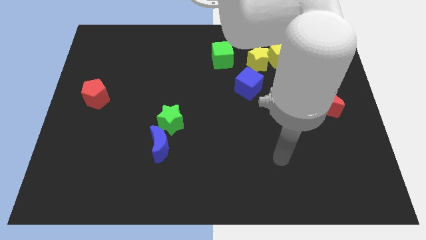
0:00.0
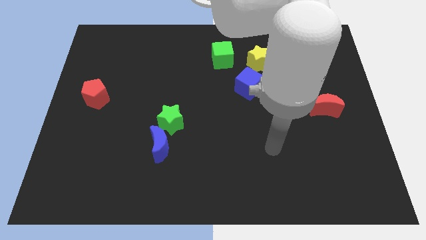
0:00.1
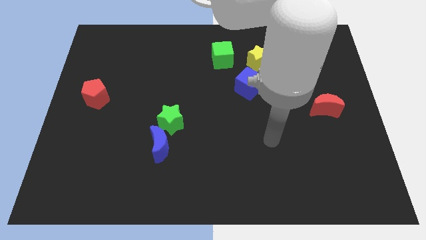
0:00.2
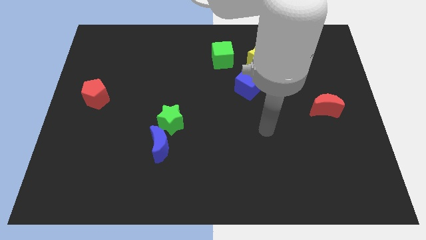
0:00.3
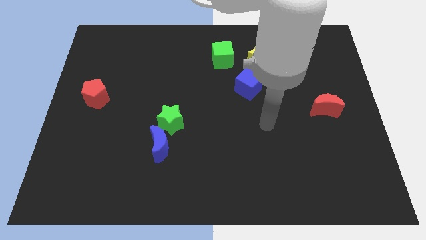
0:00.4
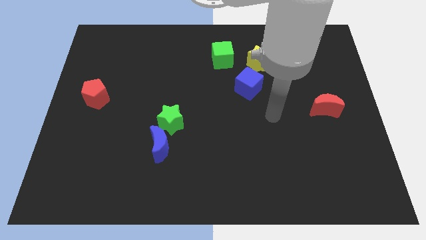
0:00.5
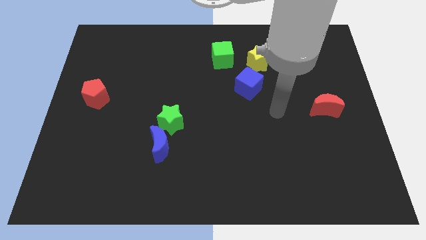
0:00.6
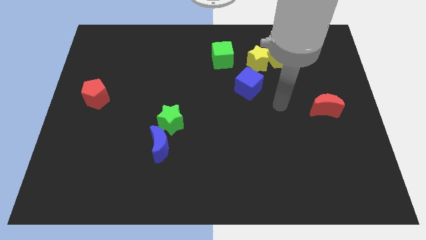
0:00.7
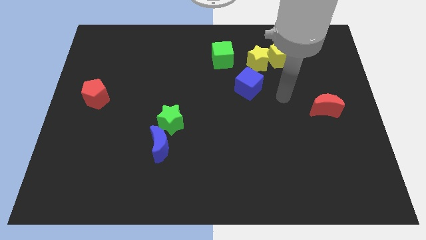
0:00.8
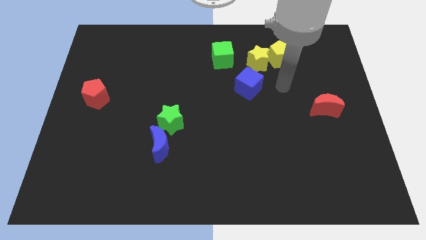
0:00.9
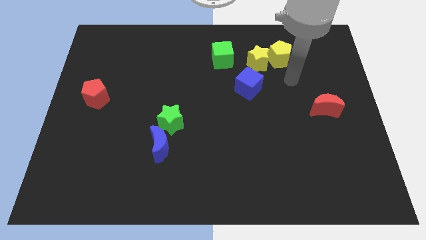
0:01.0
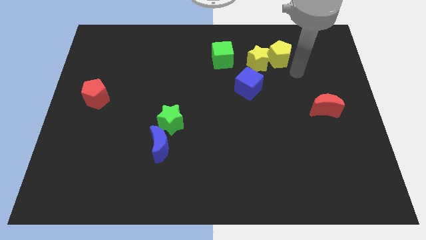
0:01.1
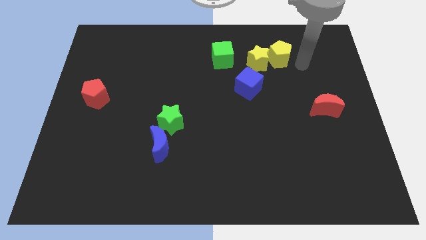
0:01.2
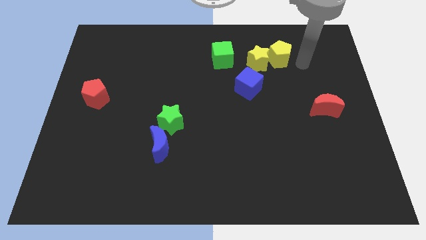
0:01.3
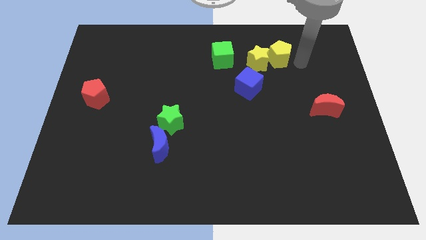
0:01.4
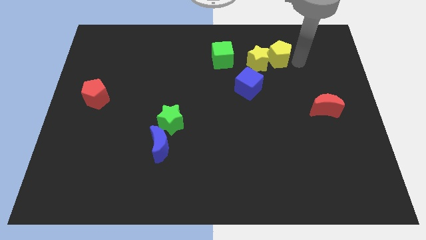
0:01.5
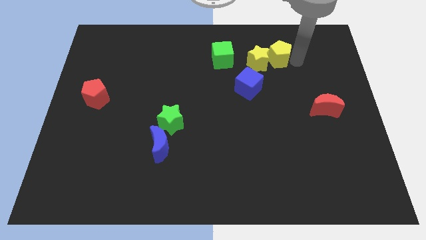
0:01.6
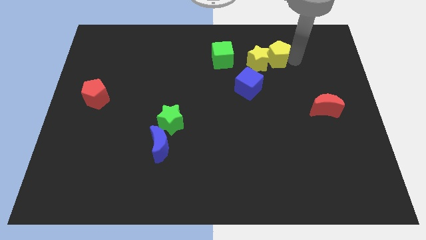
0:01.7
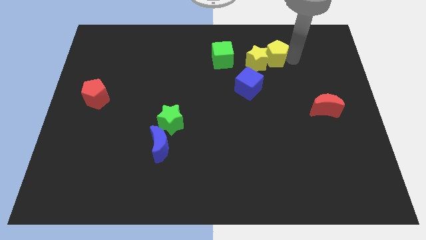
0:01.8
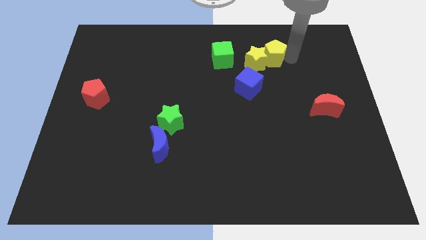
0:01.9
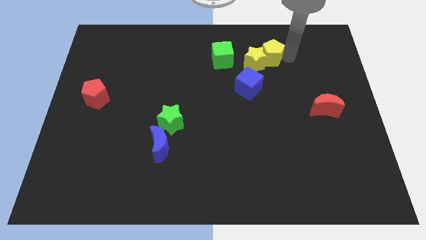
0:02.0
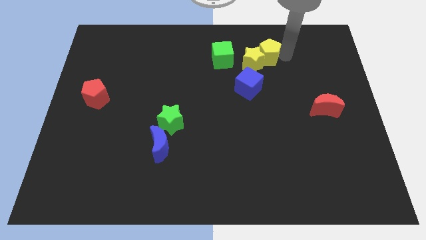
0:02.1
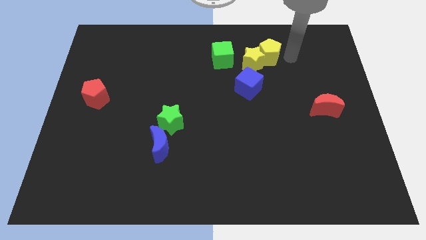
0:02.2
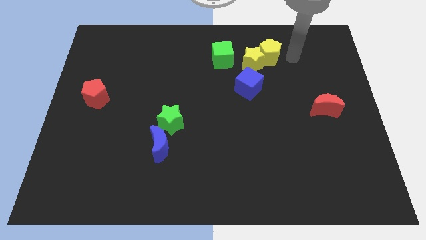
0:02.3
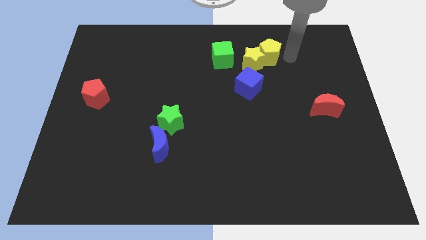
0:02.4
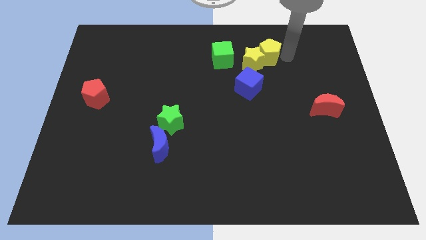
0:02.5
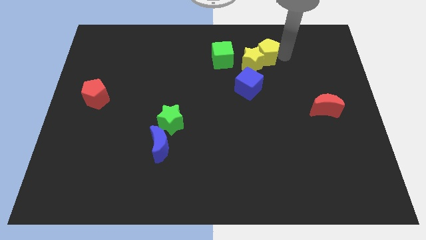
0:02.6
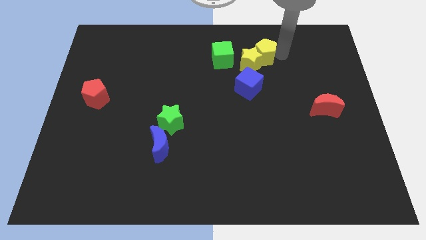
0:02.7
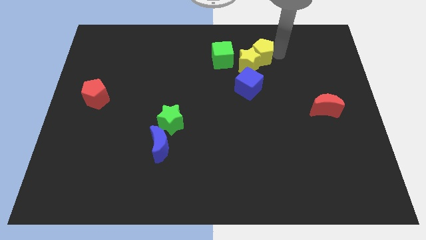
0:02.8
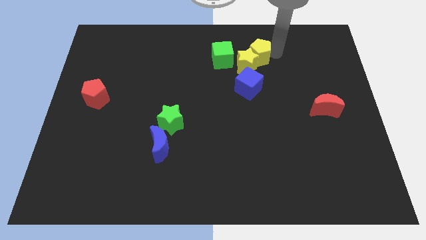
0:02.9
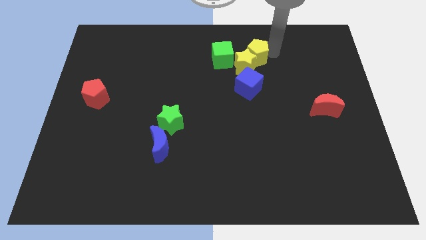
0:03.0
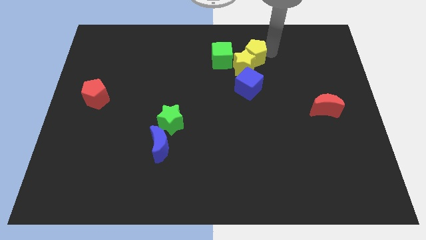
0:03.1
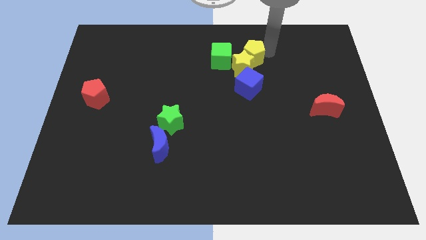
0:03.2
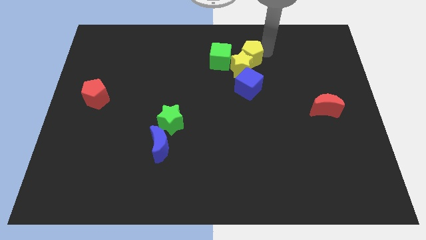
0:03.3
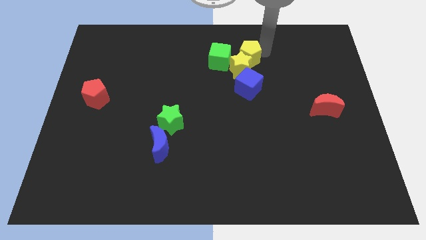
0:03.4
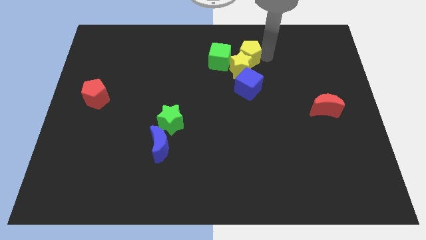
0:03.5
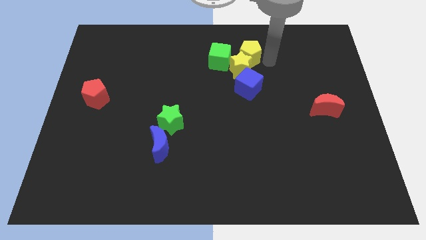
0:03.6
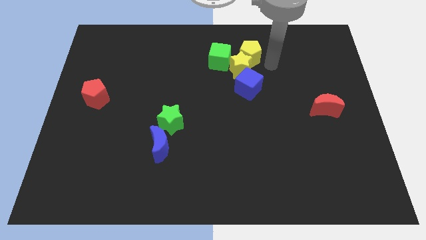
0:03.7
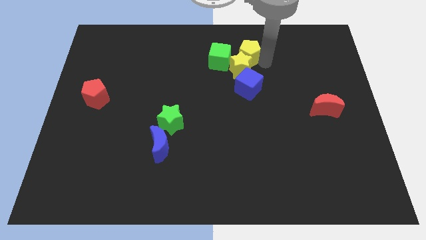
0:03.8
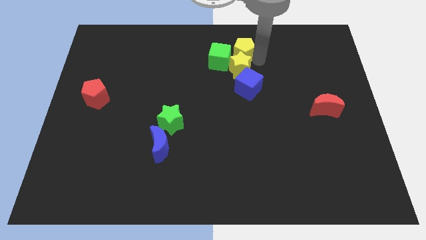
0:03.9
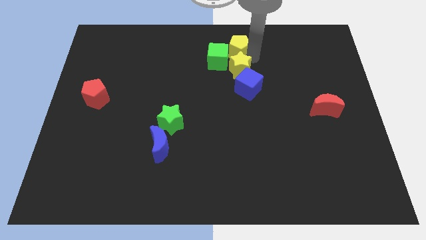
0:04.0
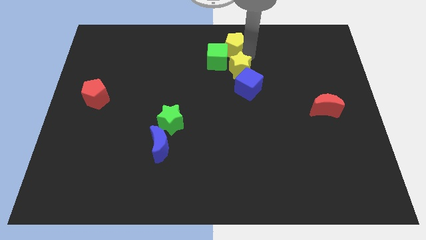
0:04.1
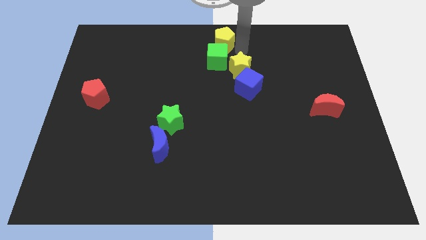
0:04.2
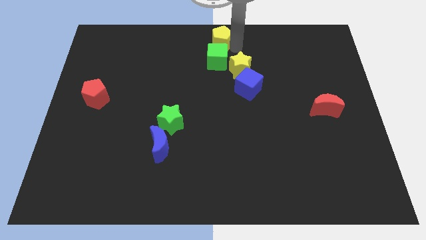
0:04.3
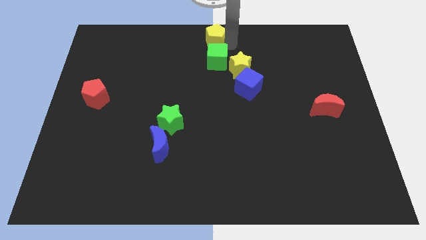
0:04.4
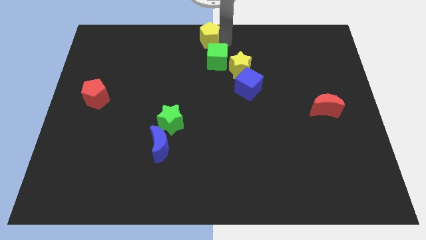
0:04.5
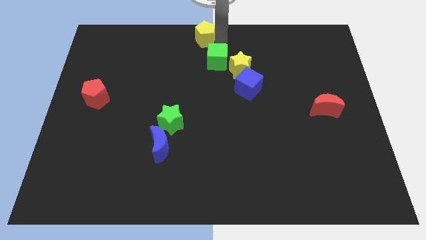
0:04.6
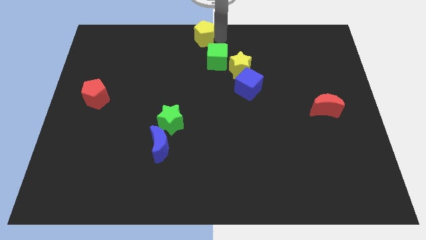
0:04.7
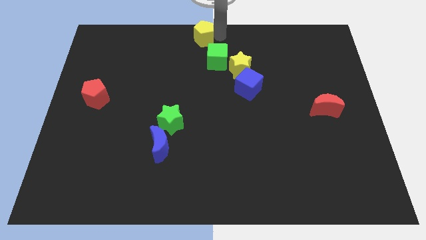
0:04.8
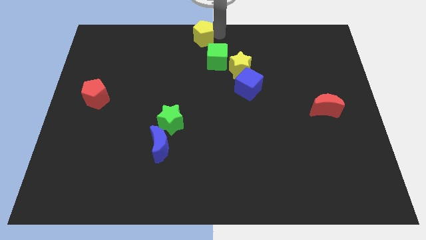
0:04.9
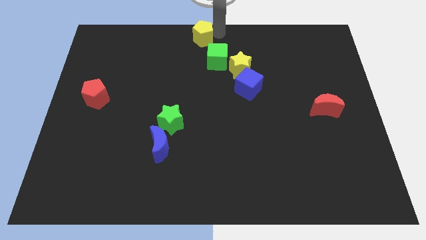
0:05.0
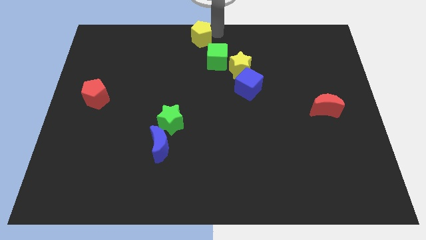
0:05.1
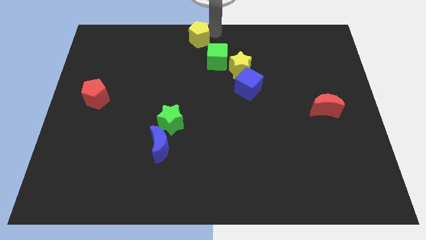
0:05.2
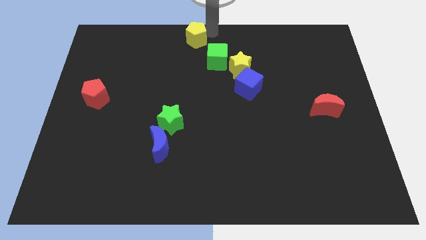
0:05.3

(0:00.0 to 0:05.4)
push the yellow pentagon left

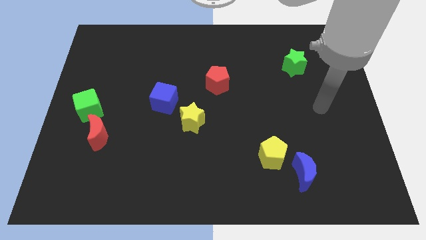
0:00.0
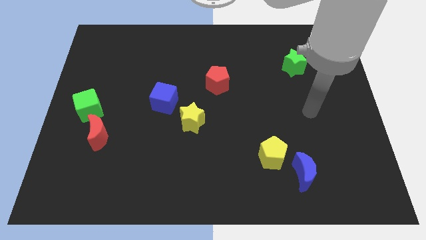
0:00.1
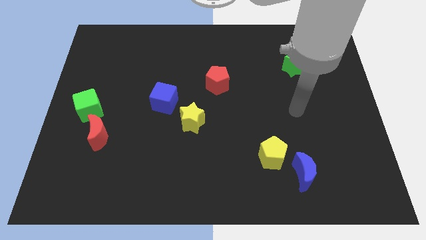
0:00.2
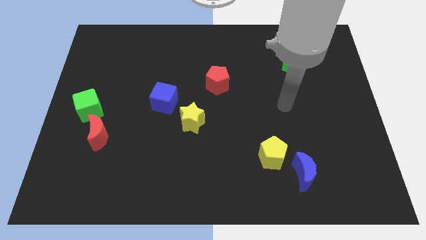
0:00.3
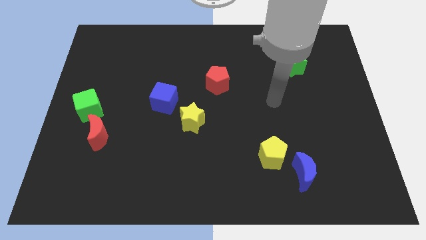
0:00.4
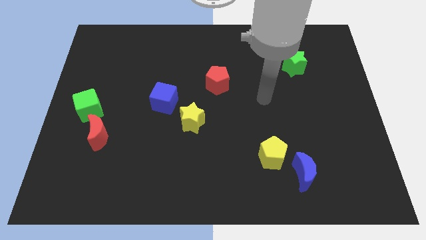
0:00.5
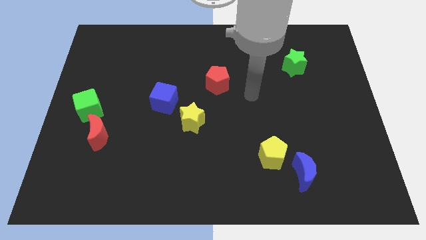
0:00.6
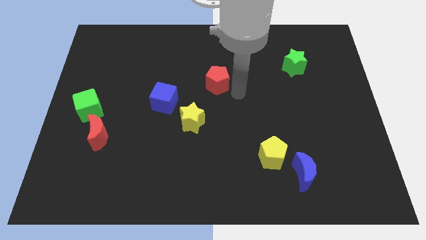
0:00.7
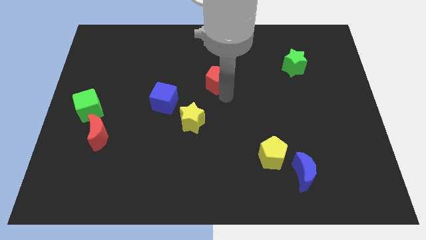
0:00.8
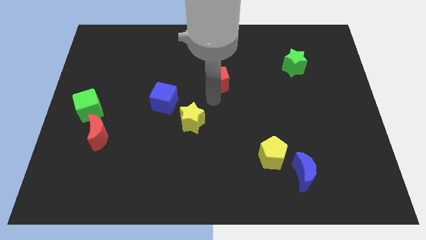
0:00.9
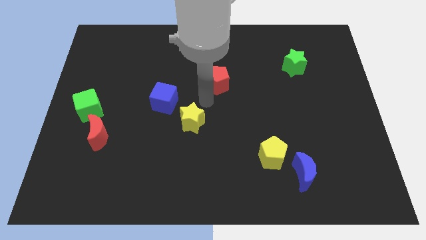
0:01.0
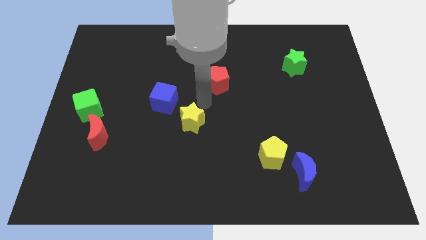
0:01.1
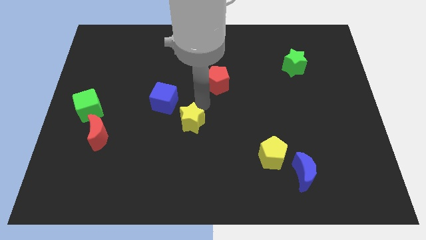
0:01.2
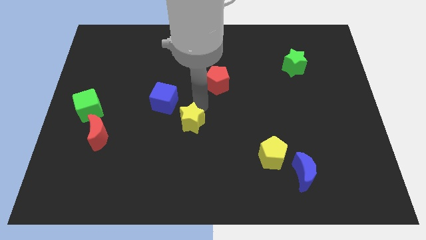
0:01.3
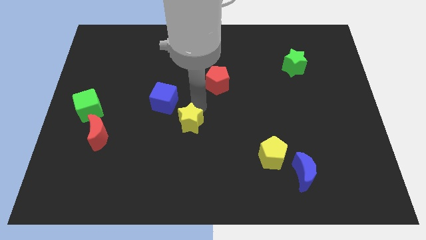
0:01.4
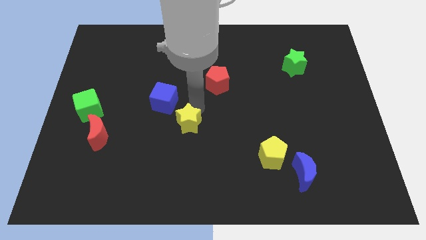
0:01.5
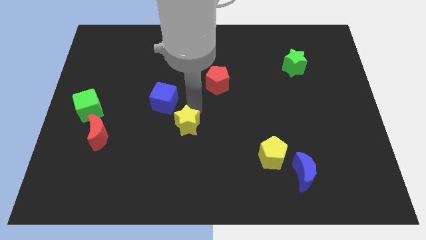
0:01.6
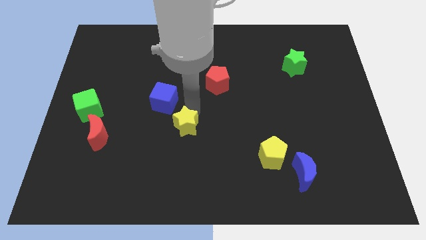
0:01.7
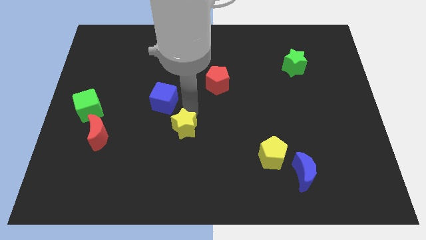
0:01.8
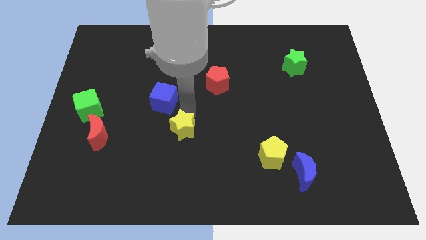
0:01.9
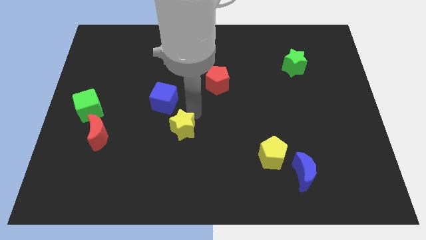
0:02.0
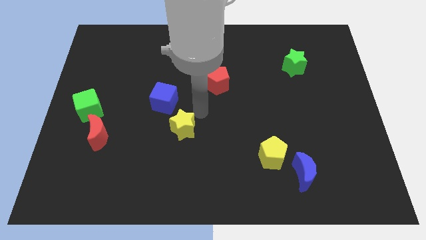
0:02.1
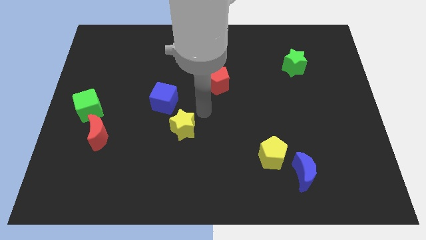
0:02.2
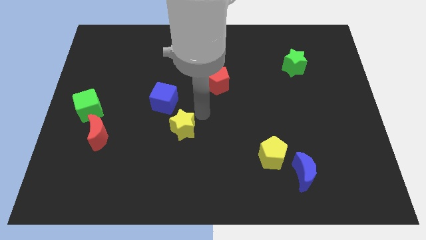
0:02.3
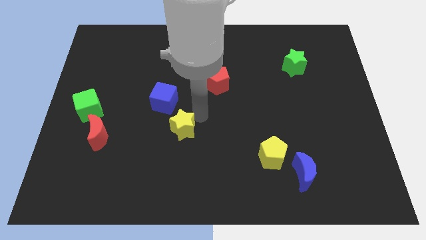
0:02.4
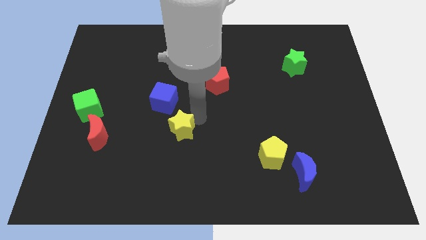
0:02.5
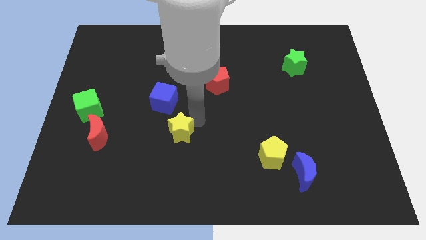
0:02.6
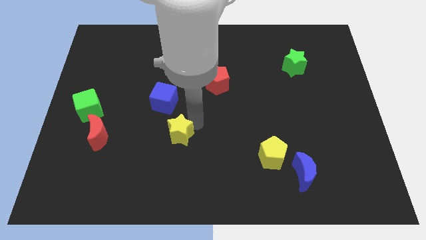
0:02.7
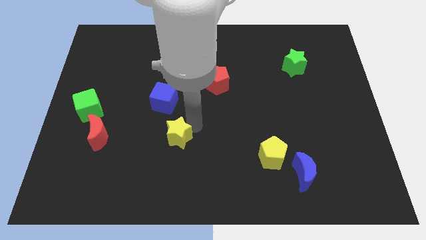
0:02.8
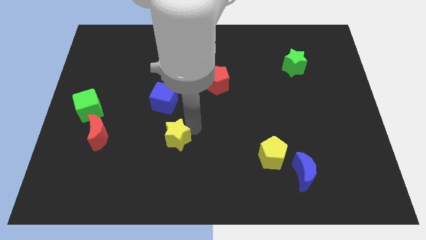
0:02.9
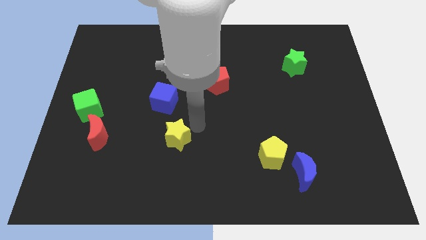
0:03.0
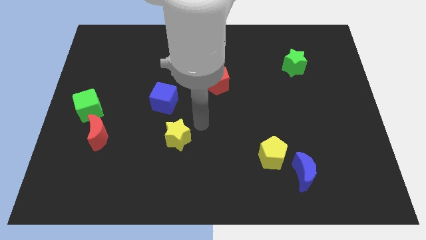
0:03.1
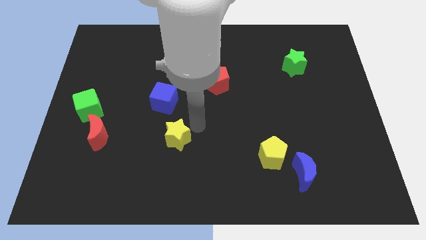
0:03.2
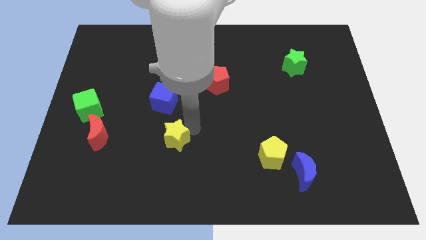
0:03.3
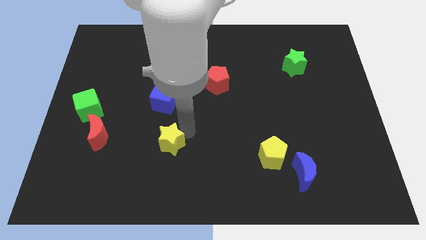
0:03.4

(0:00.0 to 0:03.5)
slide the yellow star diagonally down and left somewhat
